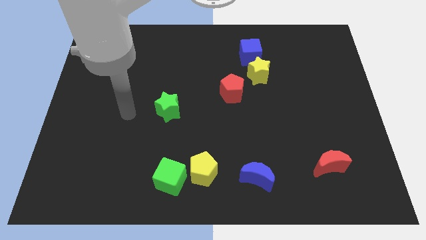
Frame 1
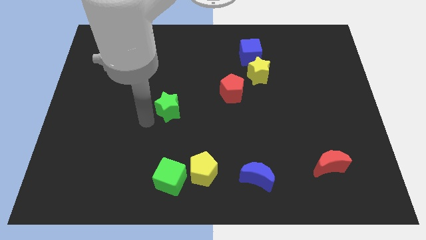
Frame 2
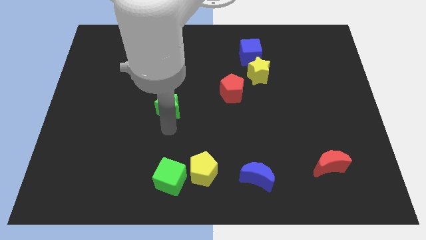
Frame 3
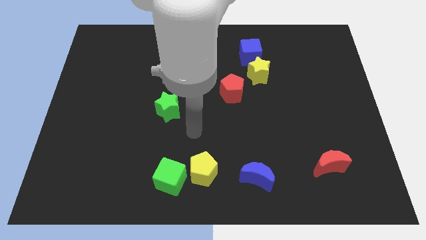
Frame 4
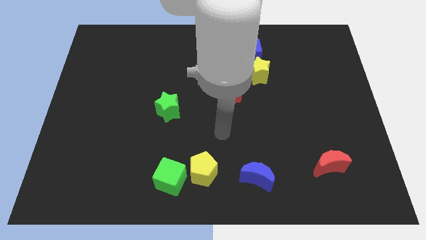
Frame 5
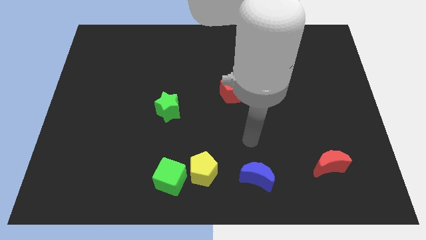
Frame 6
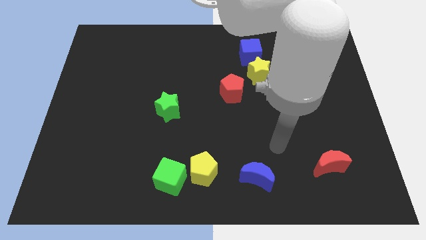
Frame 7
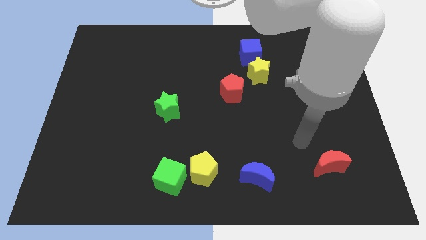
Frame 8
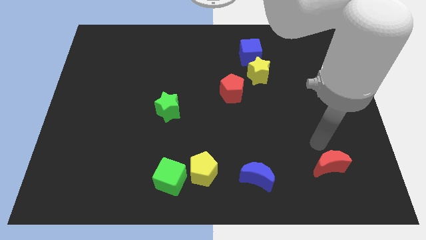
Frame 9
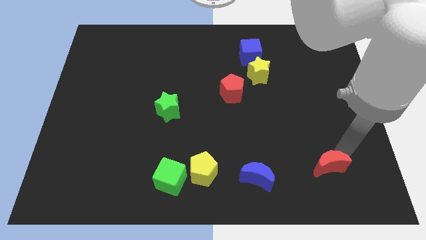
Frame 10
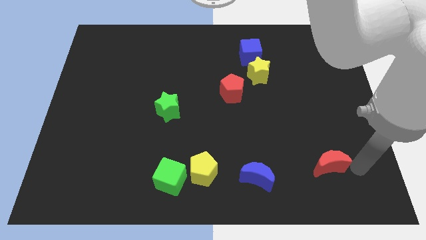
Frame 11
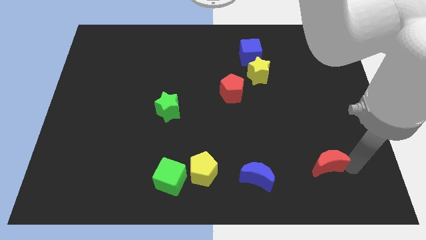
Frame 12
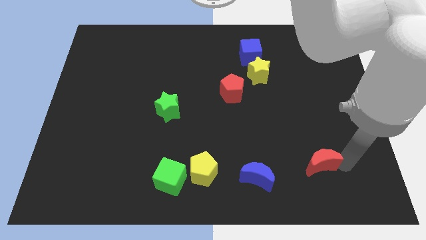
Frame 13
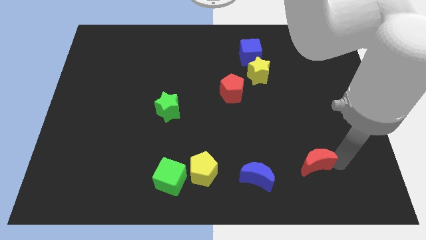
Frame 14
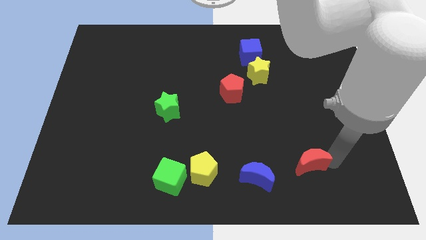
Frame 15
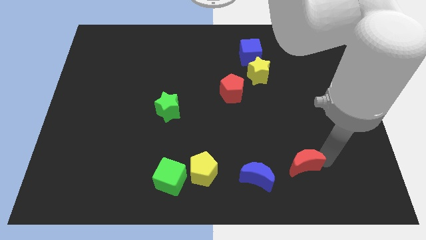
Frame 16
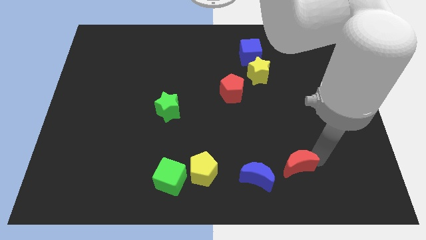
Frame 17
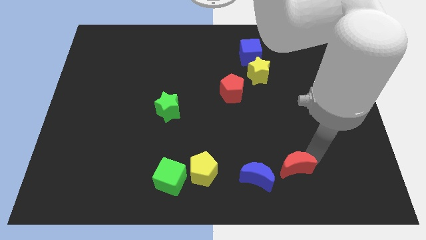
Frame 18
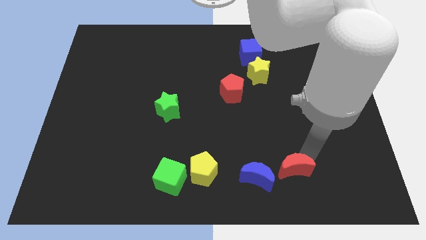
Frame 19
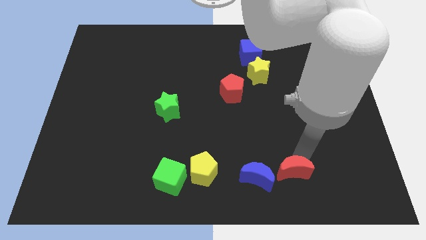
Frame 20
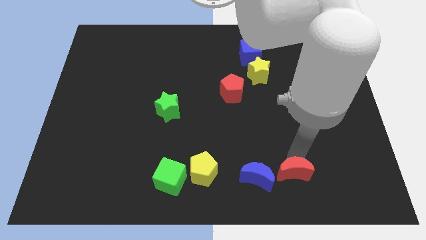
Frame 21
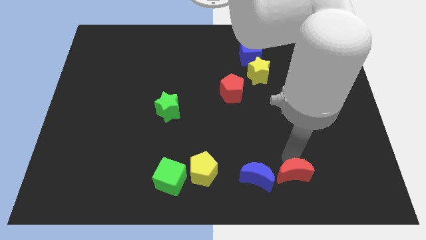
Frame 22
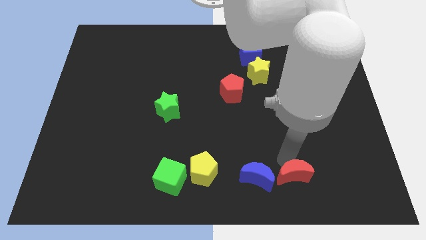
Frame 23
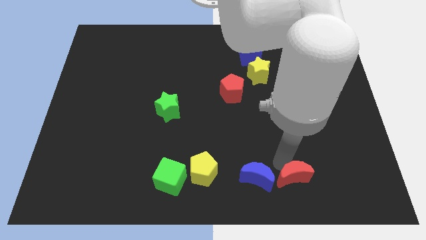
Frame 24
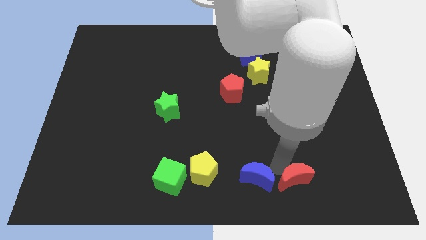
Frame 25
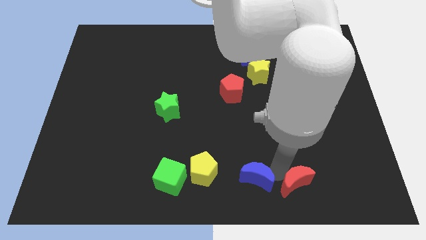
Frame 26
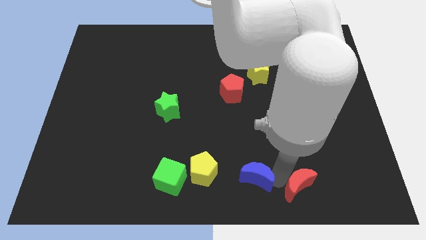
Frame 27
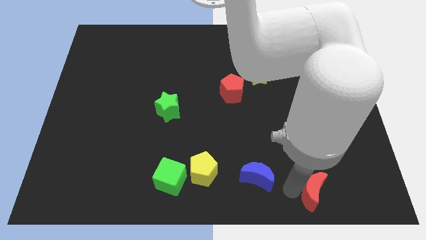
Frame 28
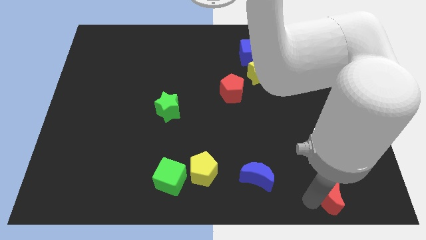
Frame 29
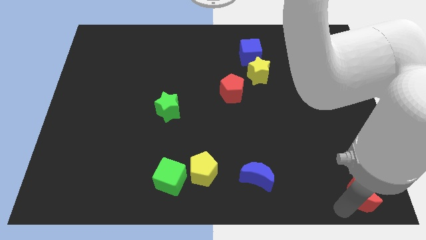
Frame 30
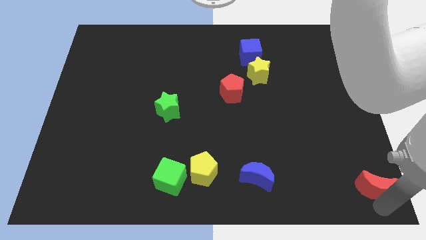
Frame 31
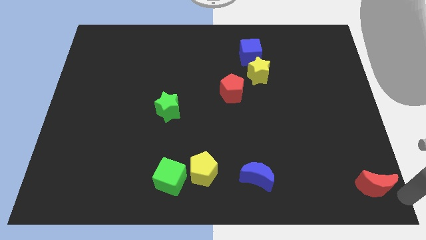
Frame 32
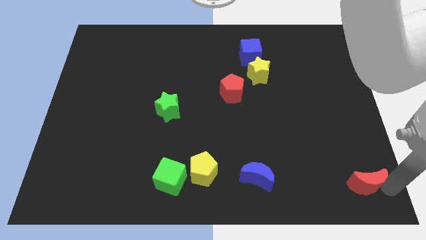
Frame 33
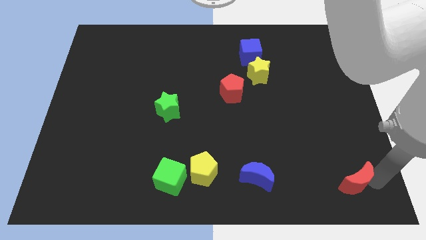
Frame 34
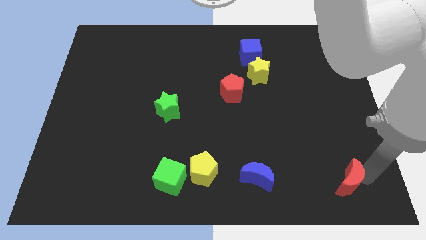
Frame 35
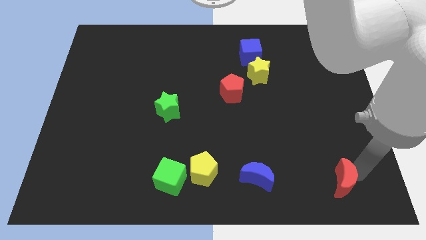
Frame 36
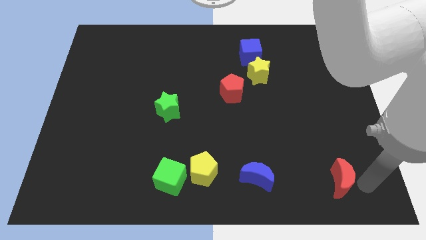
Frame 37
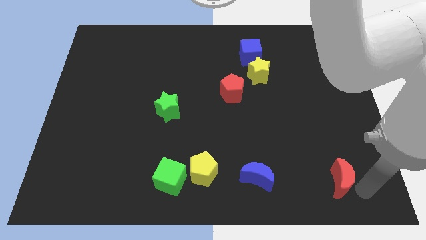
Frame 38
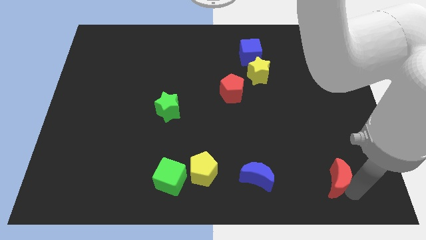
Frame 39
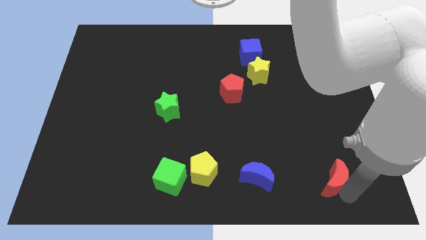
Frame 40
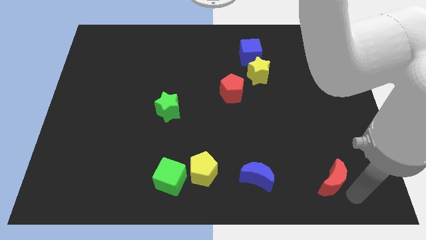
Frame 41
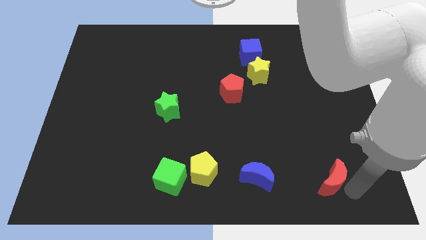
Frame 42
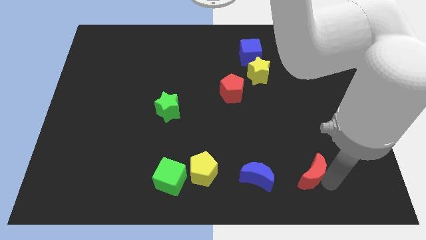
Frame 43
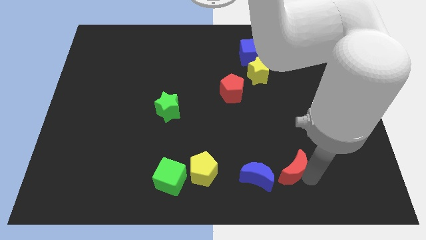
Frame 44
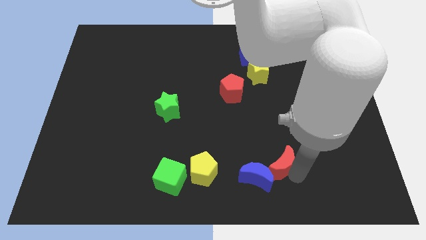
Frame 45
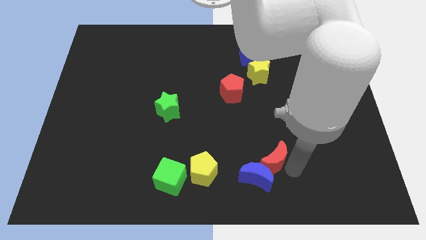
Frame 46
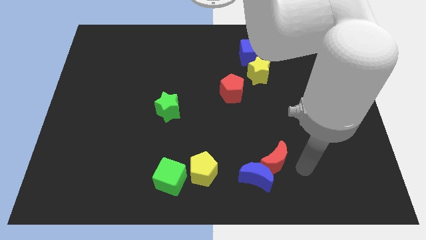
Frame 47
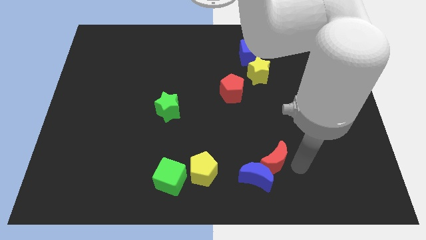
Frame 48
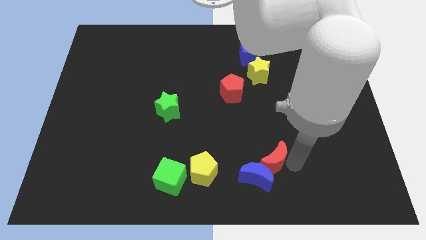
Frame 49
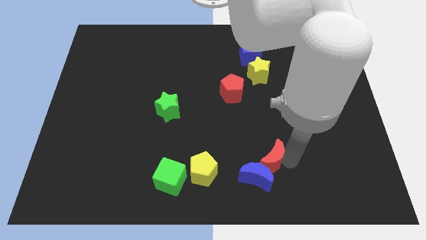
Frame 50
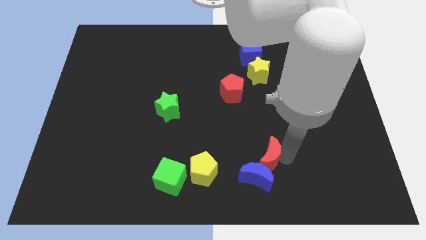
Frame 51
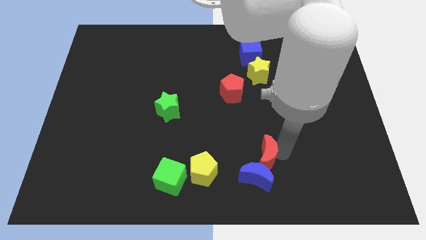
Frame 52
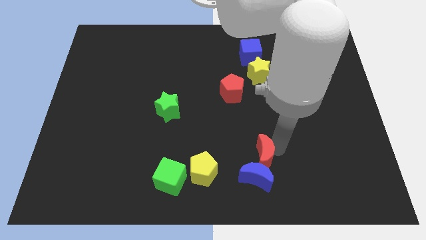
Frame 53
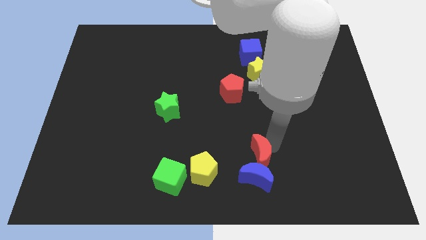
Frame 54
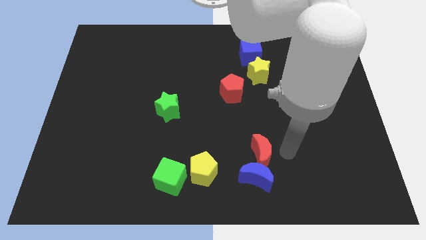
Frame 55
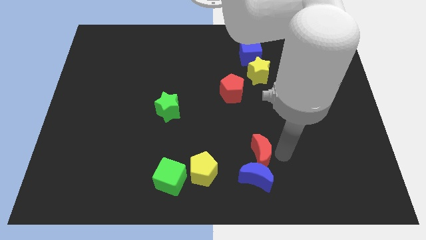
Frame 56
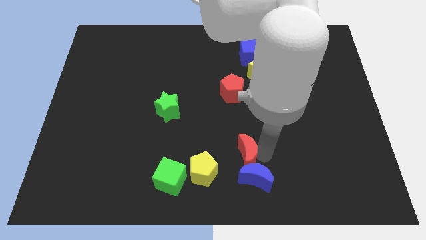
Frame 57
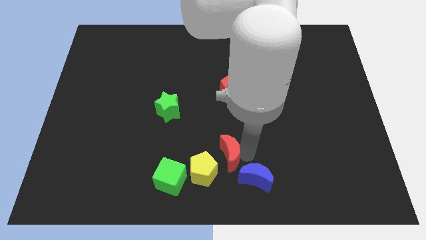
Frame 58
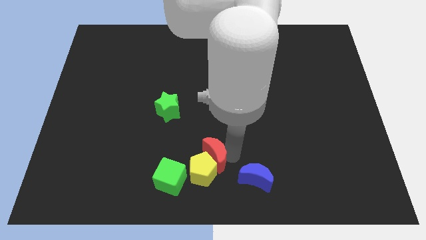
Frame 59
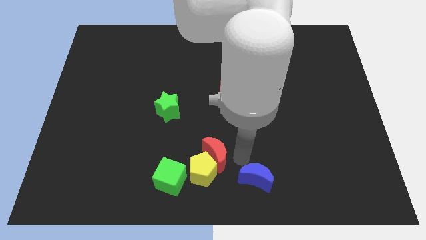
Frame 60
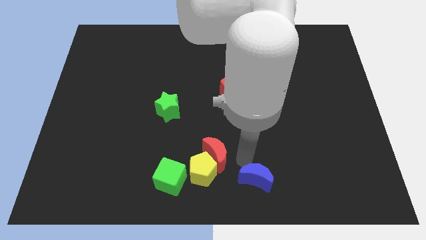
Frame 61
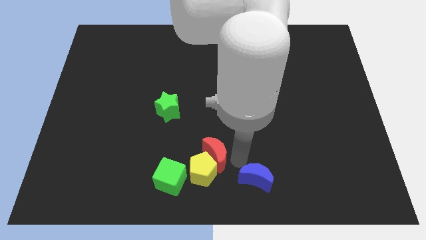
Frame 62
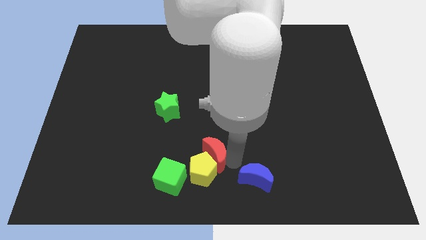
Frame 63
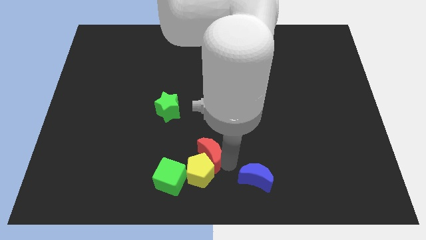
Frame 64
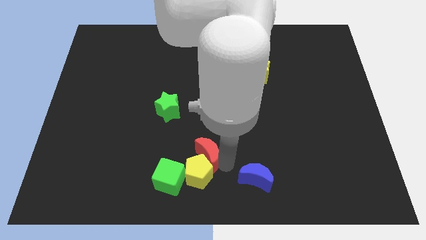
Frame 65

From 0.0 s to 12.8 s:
move the red moon diagonally up and to the left of the yellow pentagon

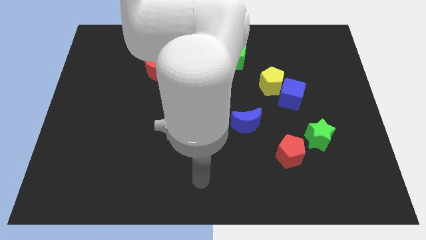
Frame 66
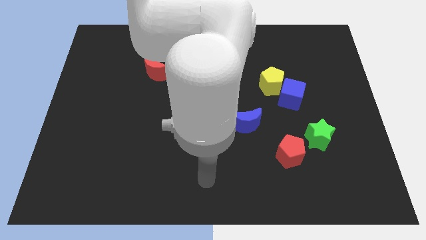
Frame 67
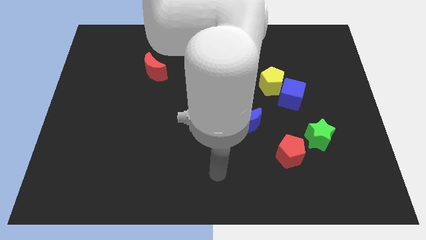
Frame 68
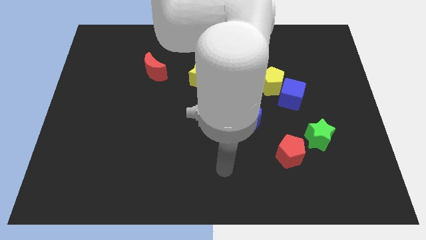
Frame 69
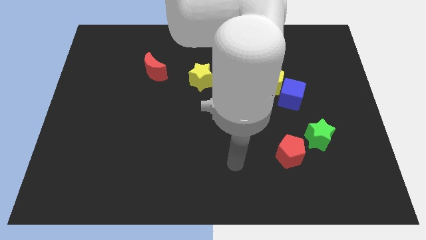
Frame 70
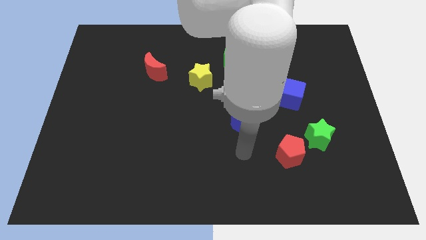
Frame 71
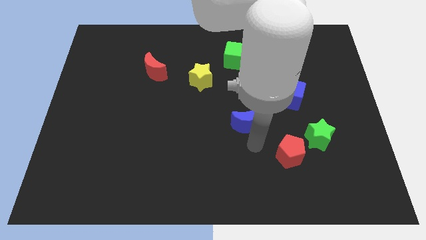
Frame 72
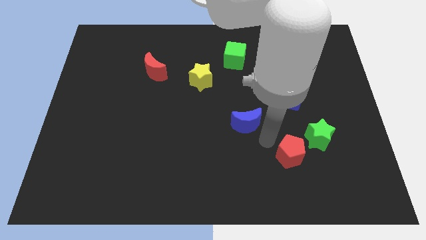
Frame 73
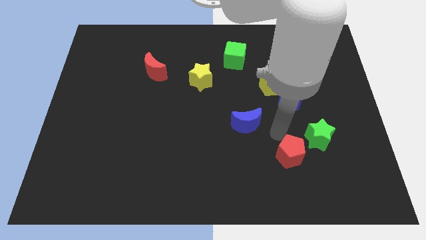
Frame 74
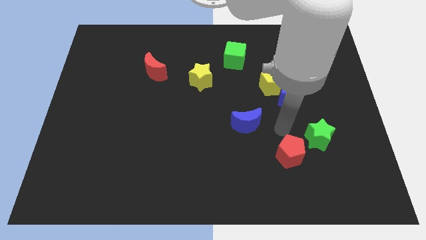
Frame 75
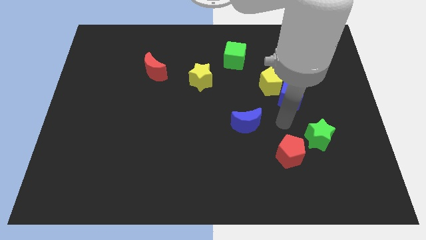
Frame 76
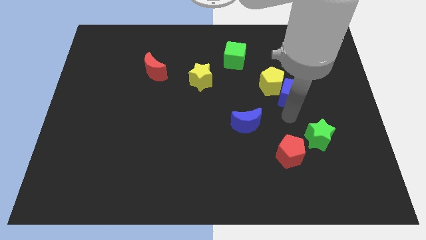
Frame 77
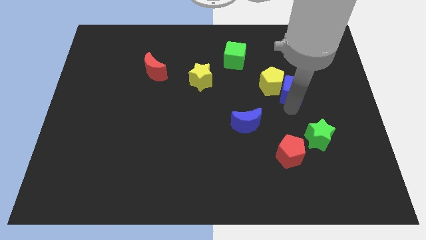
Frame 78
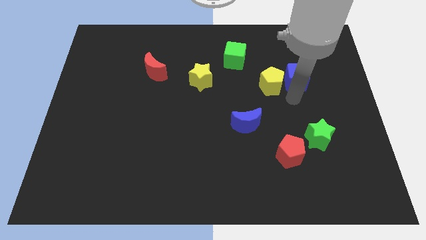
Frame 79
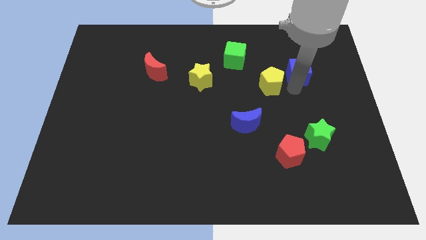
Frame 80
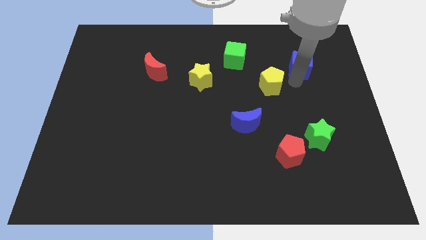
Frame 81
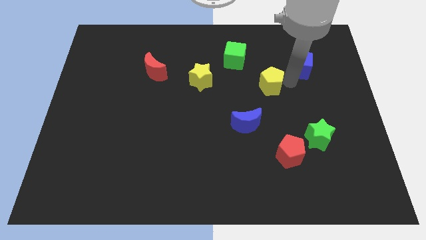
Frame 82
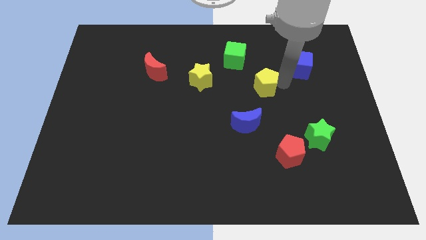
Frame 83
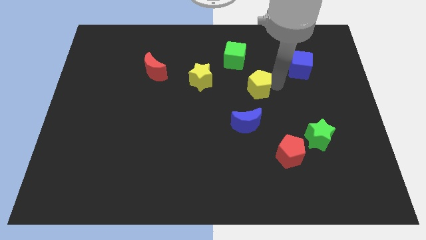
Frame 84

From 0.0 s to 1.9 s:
slide the yellow pentagon above the blue moon
